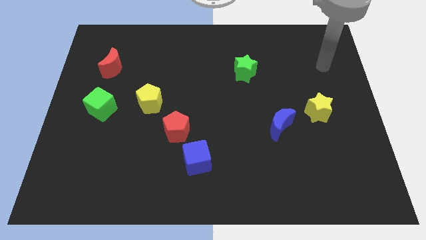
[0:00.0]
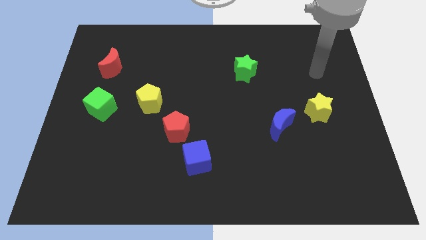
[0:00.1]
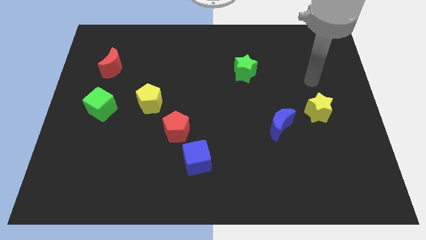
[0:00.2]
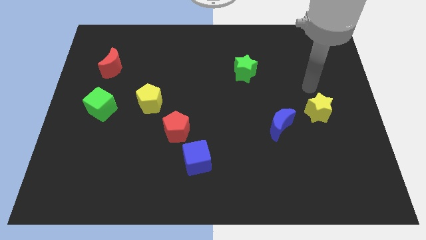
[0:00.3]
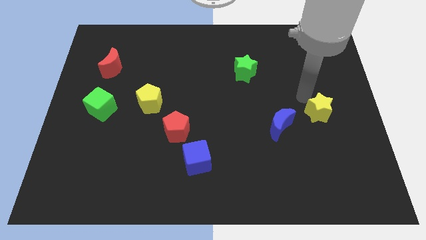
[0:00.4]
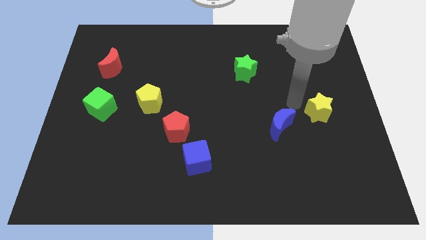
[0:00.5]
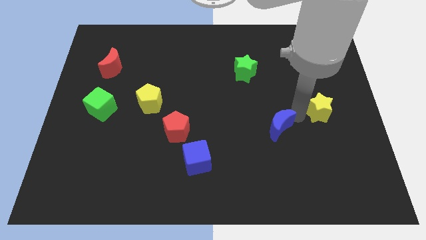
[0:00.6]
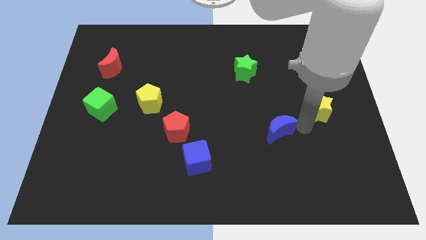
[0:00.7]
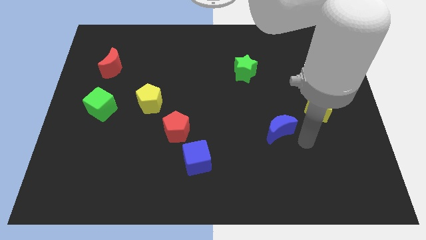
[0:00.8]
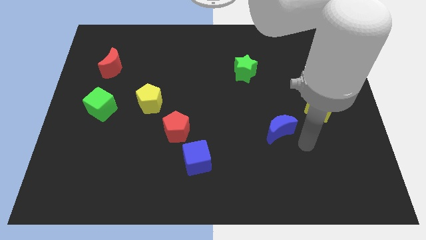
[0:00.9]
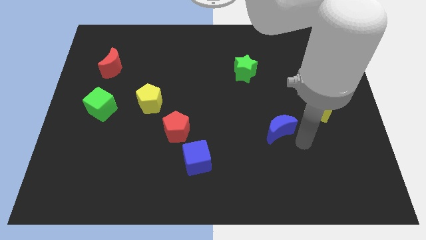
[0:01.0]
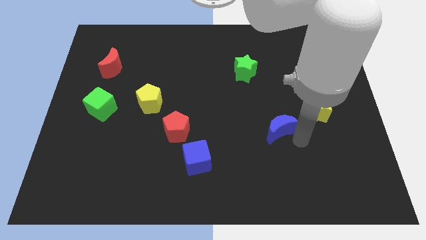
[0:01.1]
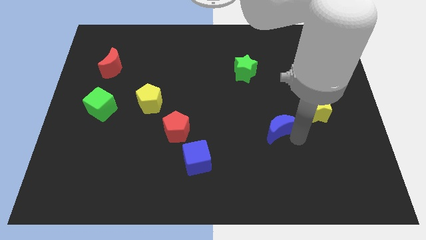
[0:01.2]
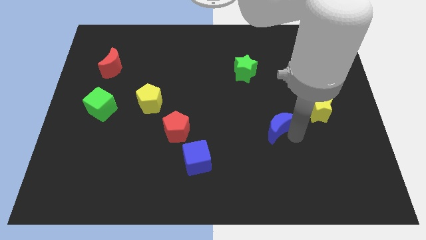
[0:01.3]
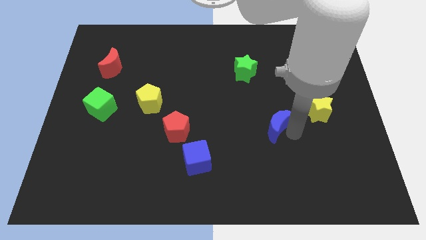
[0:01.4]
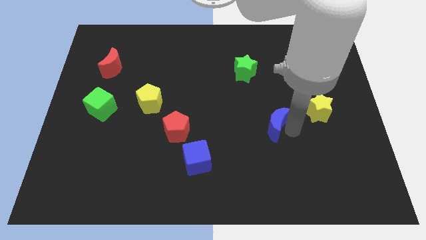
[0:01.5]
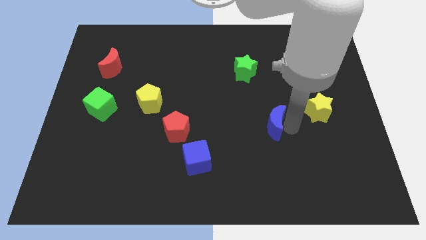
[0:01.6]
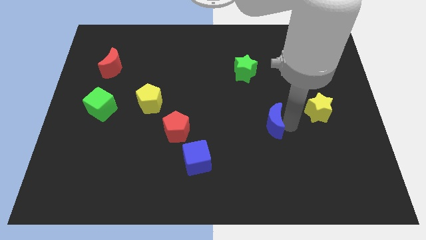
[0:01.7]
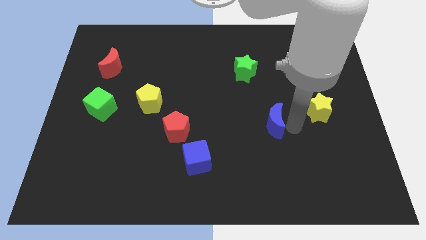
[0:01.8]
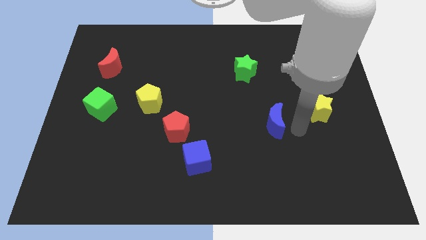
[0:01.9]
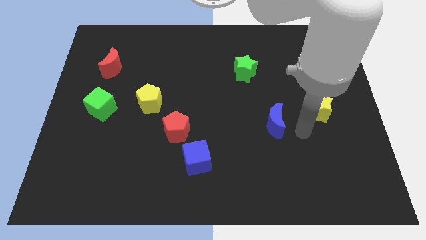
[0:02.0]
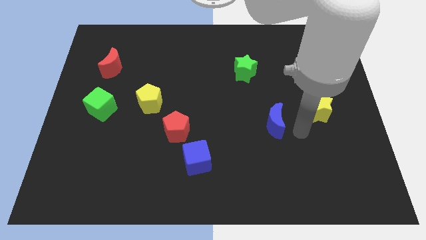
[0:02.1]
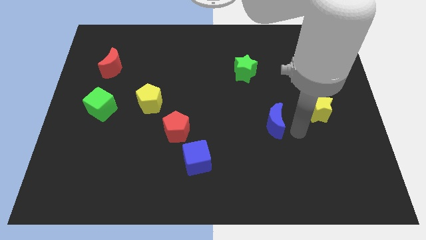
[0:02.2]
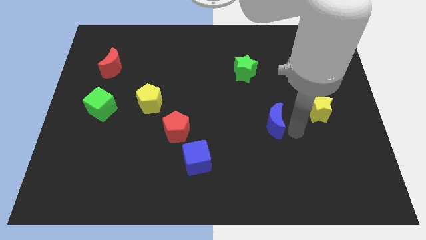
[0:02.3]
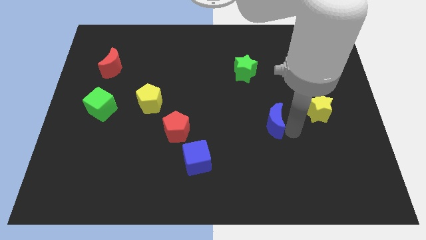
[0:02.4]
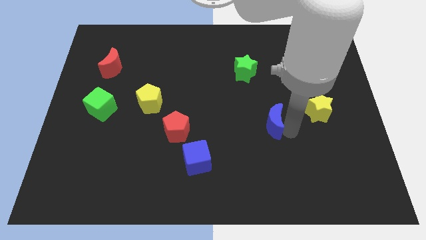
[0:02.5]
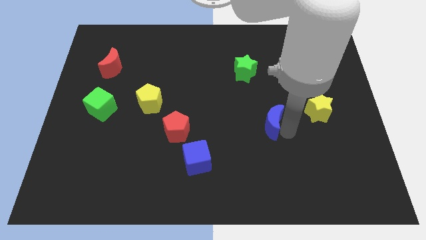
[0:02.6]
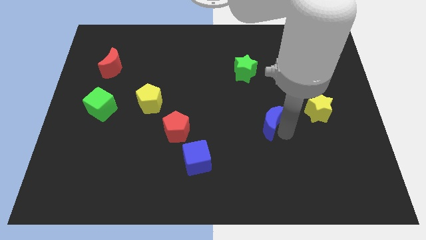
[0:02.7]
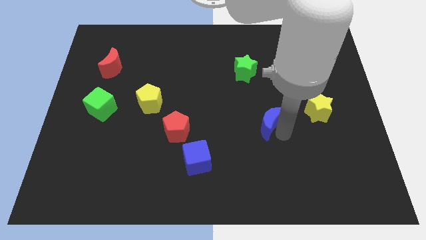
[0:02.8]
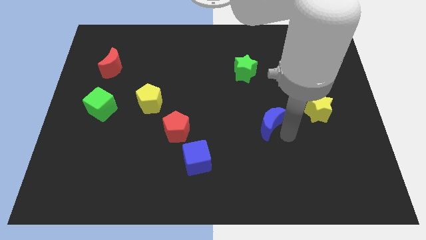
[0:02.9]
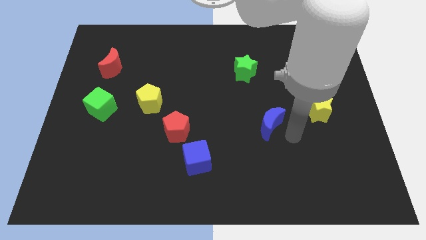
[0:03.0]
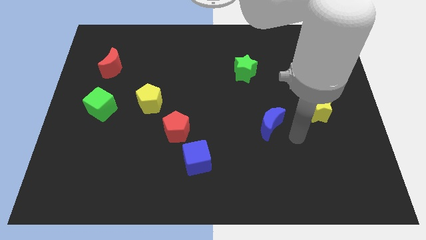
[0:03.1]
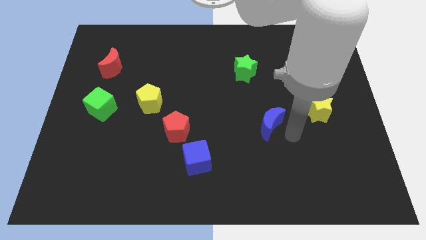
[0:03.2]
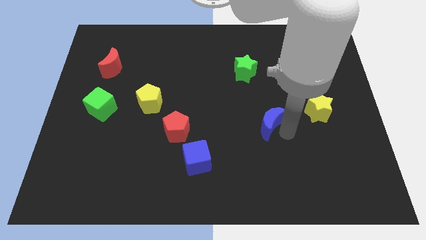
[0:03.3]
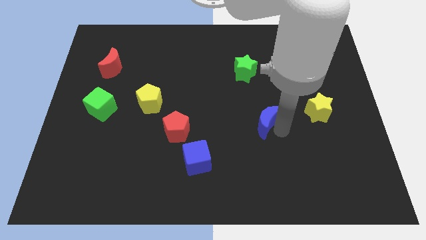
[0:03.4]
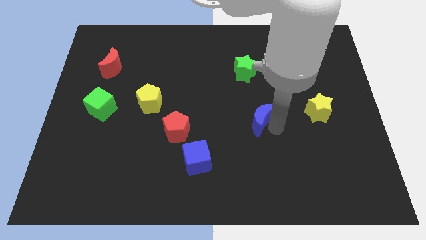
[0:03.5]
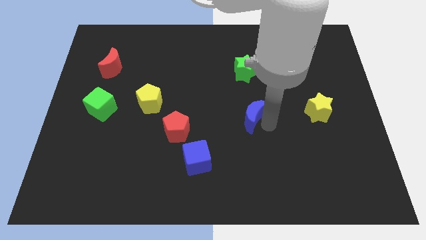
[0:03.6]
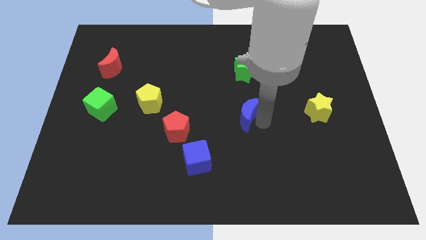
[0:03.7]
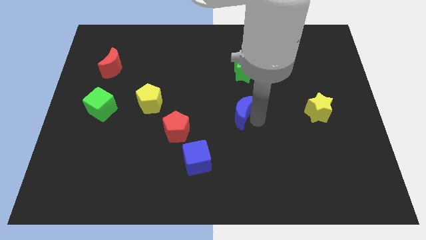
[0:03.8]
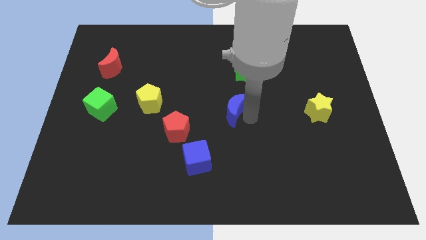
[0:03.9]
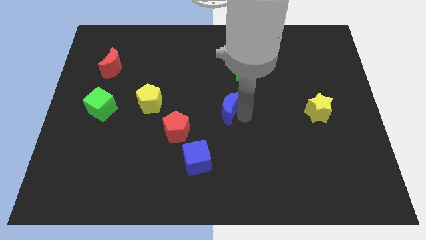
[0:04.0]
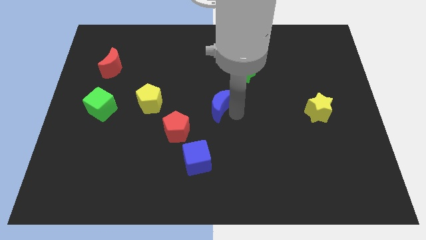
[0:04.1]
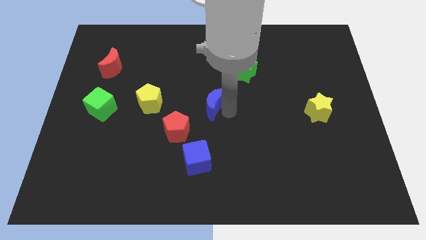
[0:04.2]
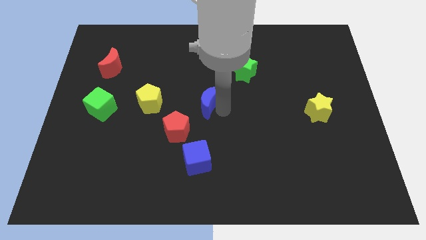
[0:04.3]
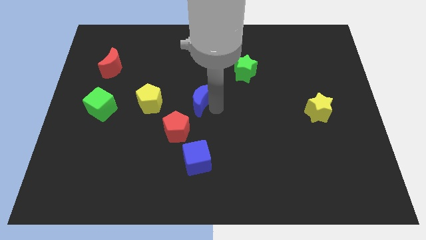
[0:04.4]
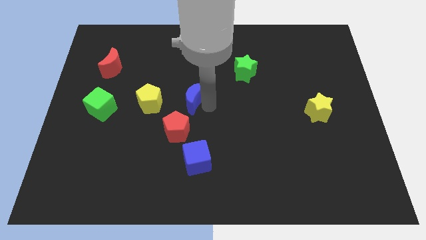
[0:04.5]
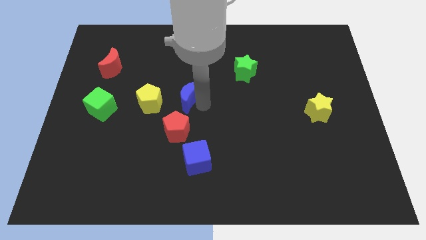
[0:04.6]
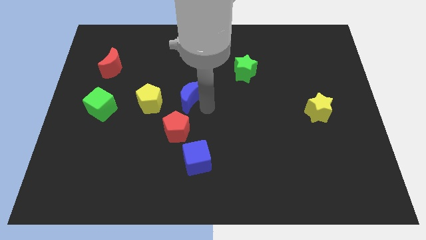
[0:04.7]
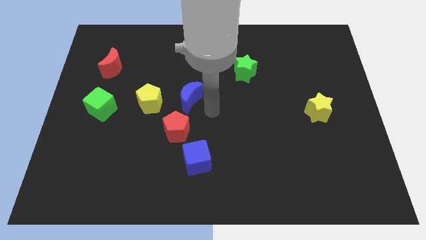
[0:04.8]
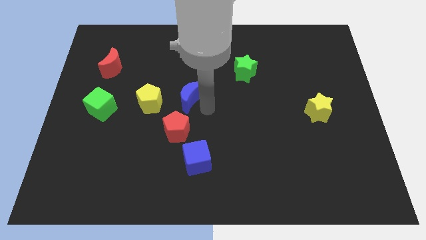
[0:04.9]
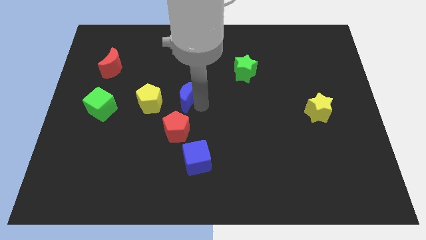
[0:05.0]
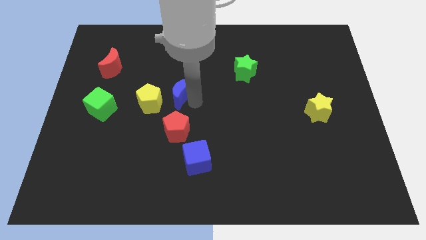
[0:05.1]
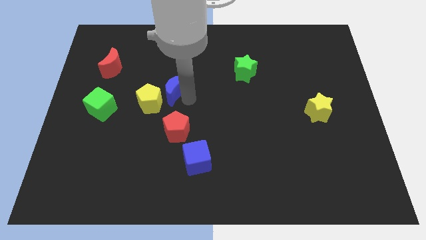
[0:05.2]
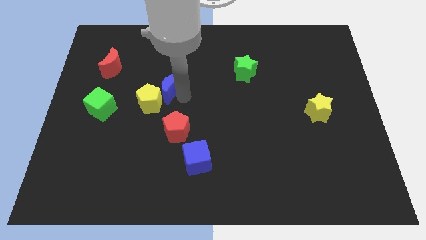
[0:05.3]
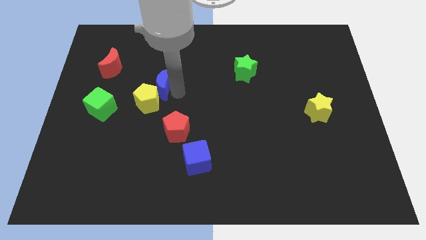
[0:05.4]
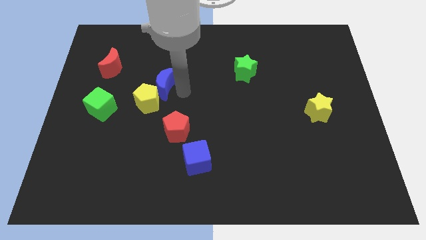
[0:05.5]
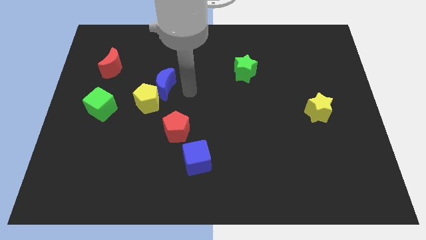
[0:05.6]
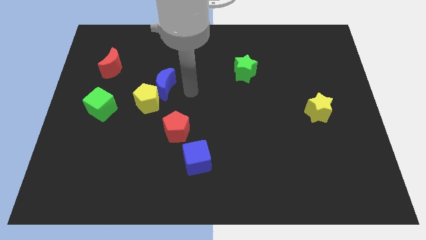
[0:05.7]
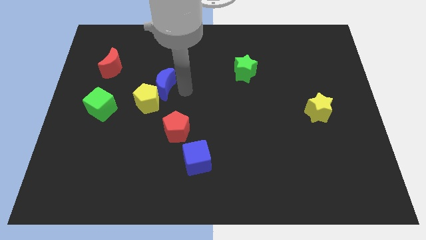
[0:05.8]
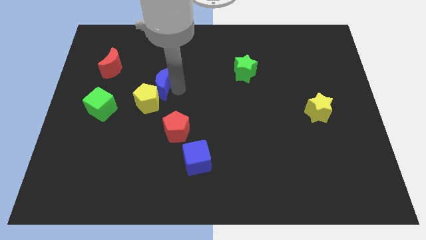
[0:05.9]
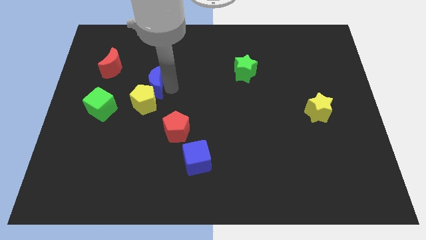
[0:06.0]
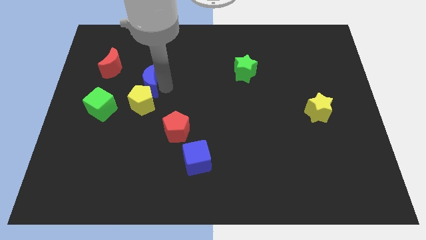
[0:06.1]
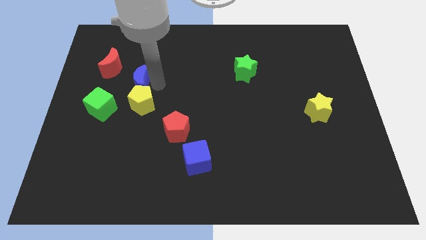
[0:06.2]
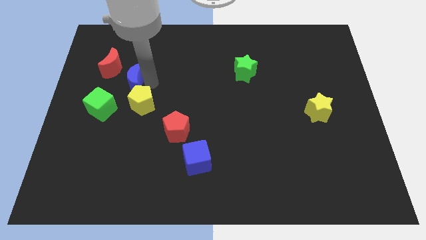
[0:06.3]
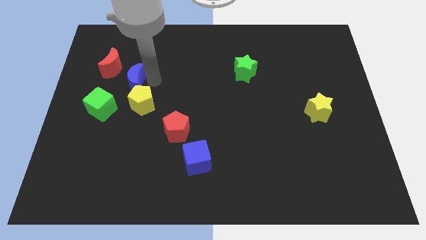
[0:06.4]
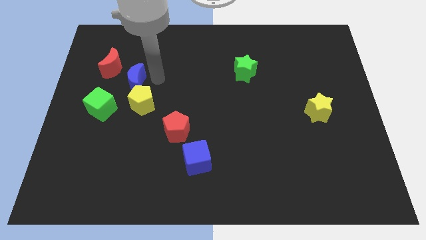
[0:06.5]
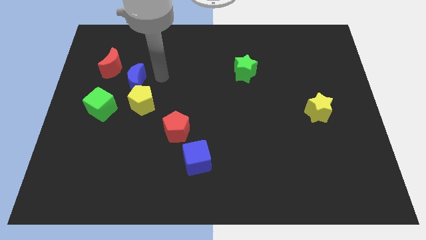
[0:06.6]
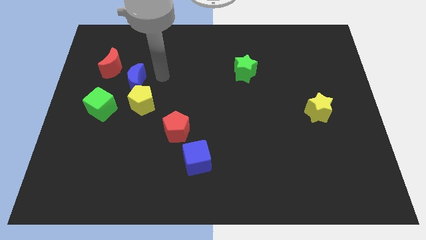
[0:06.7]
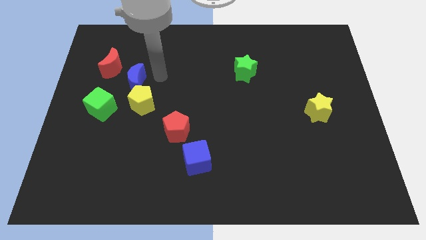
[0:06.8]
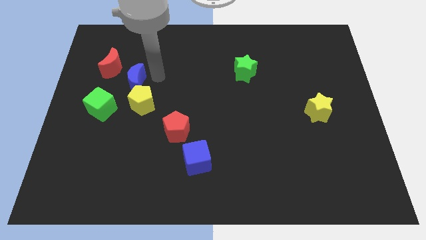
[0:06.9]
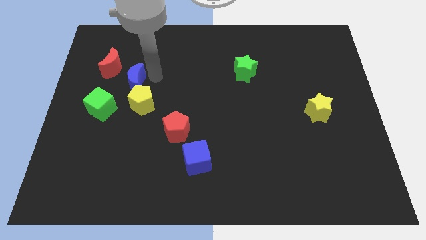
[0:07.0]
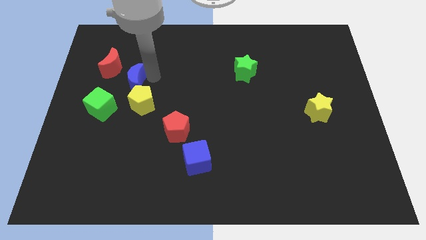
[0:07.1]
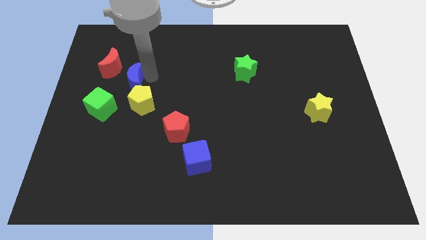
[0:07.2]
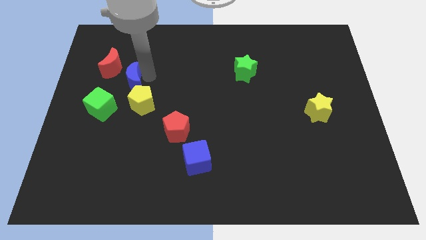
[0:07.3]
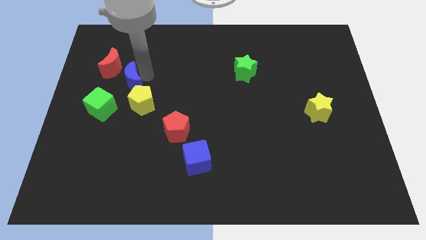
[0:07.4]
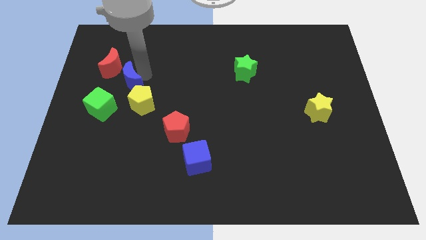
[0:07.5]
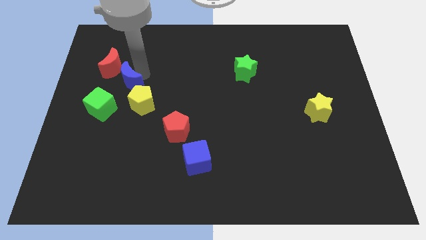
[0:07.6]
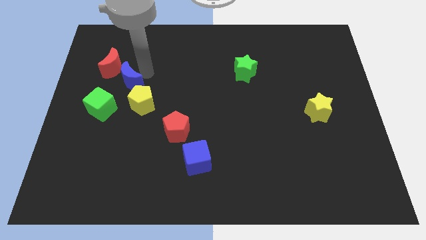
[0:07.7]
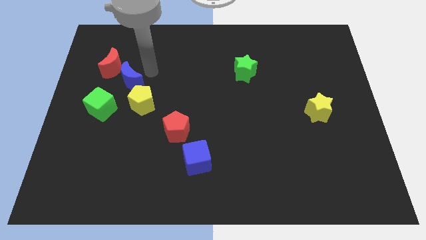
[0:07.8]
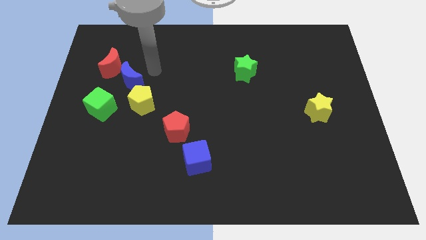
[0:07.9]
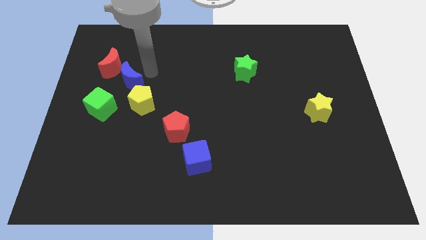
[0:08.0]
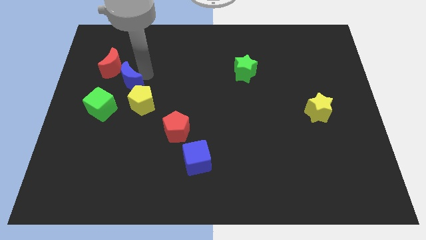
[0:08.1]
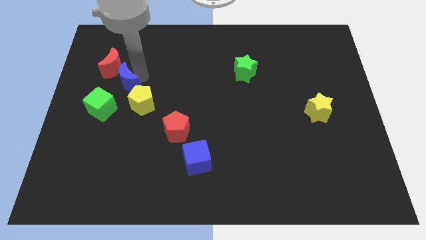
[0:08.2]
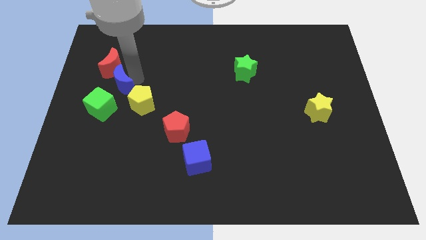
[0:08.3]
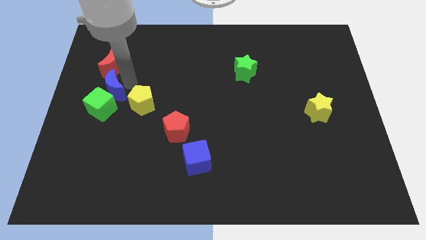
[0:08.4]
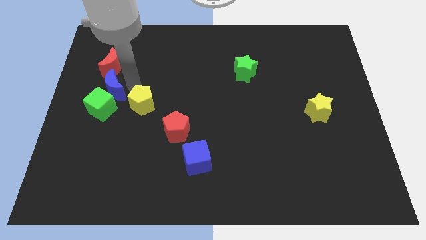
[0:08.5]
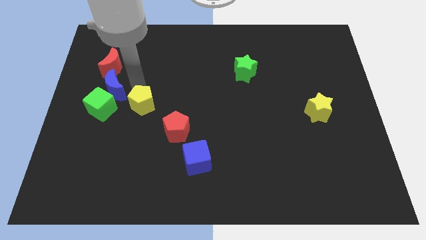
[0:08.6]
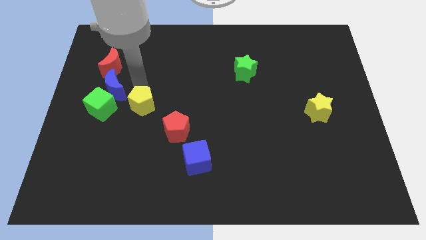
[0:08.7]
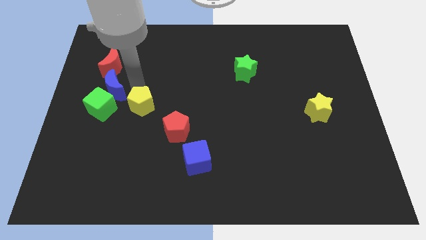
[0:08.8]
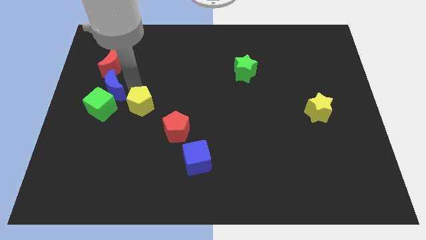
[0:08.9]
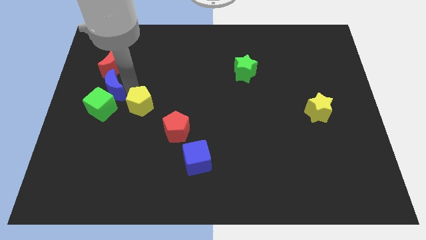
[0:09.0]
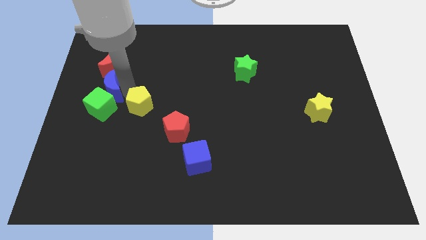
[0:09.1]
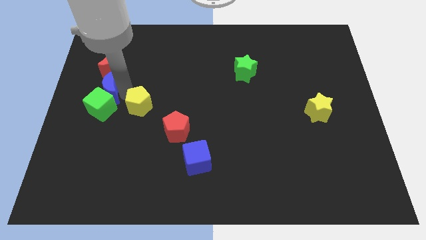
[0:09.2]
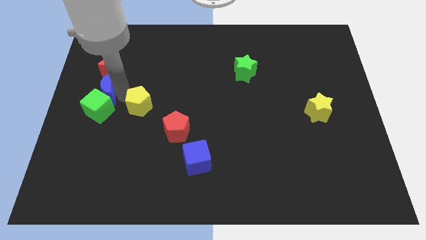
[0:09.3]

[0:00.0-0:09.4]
slide the blue moon to the left side
